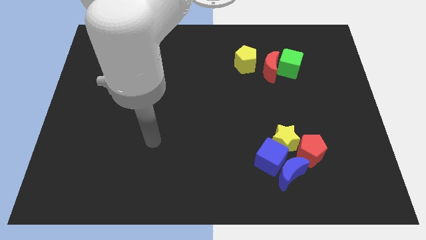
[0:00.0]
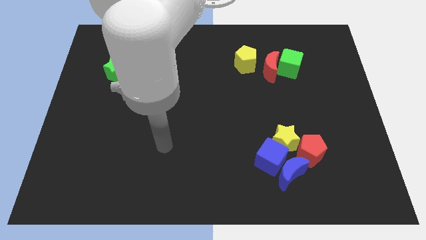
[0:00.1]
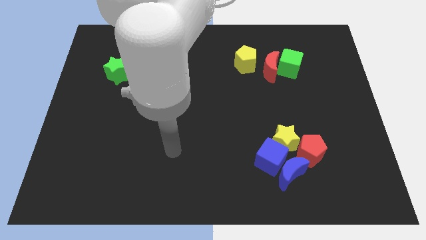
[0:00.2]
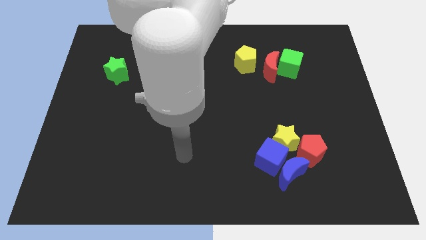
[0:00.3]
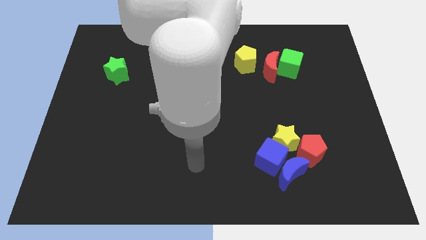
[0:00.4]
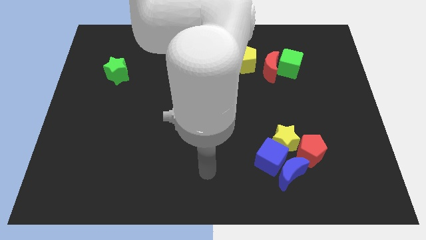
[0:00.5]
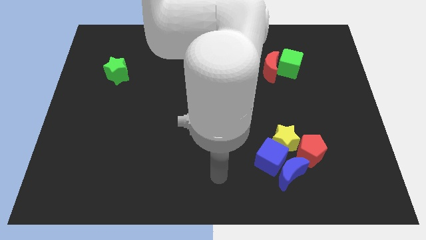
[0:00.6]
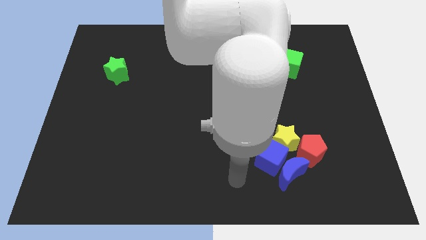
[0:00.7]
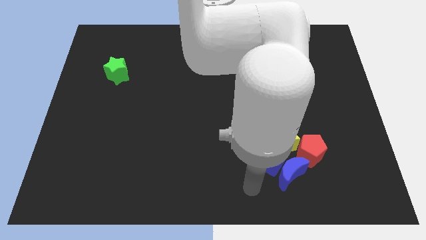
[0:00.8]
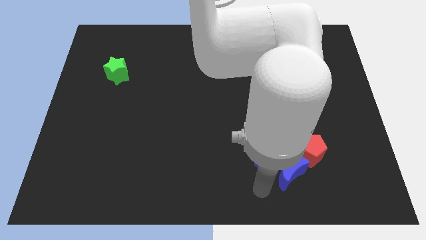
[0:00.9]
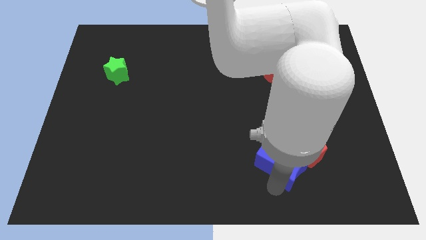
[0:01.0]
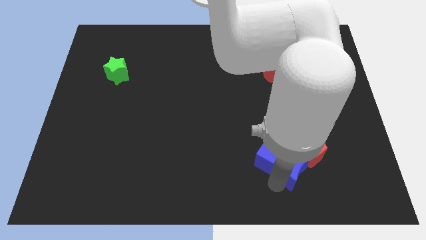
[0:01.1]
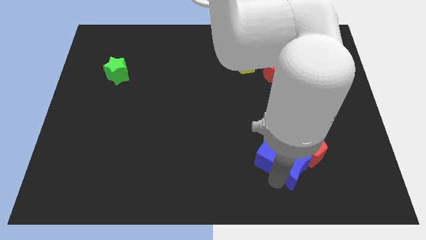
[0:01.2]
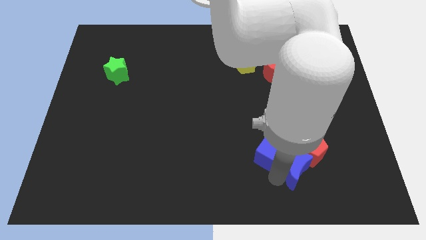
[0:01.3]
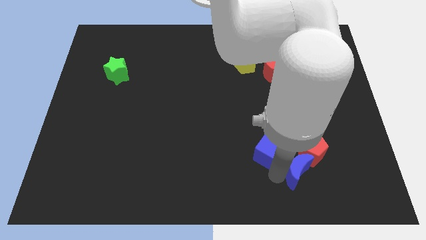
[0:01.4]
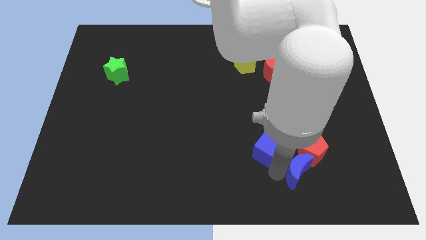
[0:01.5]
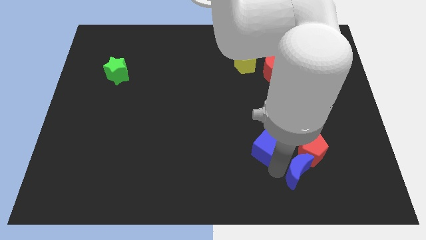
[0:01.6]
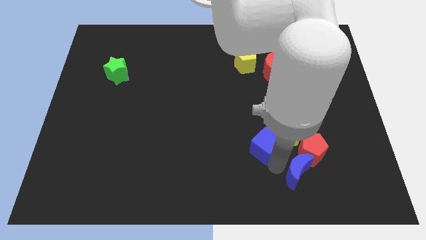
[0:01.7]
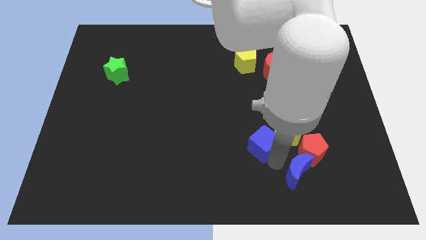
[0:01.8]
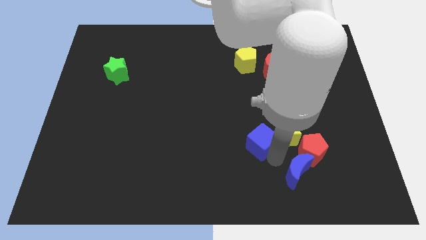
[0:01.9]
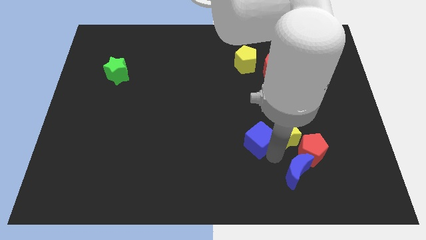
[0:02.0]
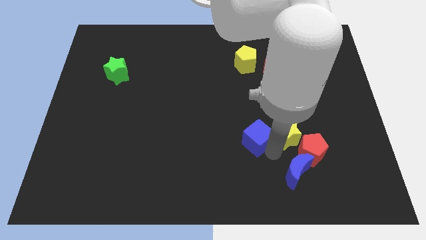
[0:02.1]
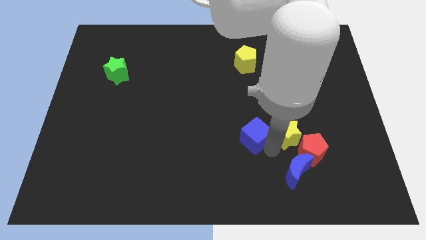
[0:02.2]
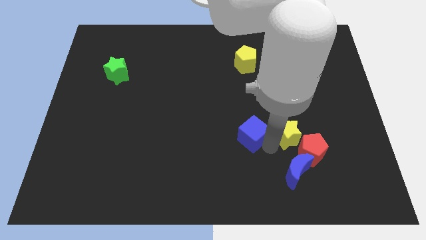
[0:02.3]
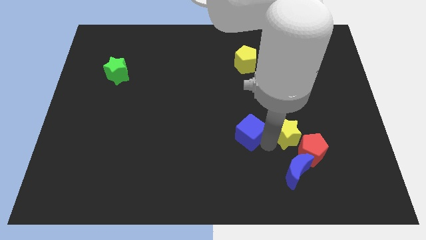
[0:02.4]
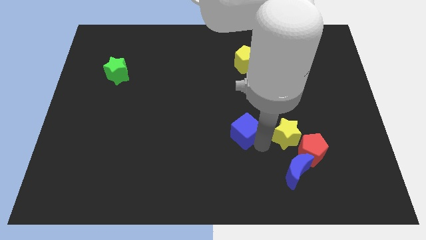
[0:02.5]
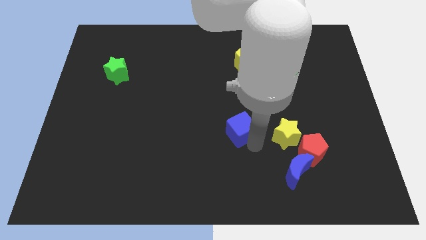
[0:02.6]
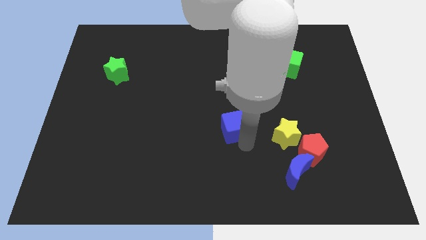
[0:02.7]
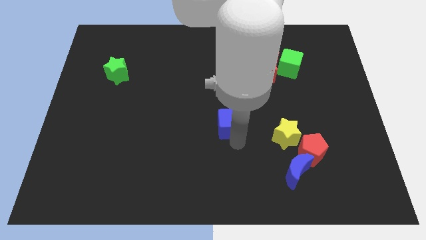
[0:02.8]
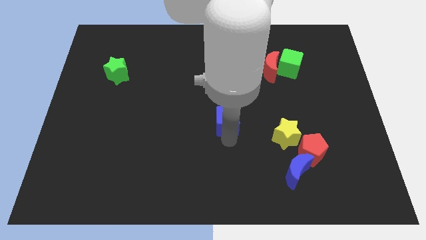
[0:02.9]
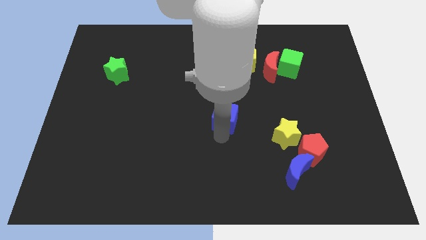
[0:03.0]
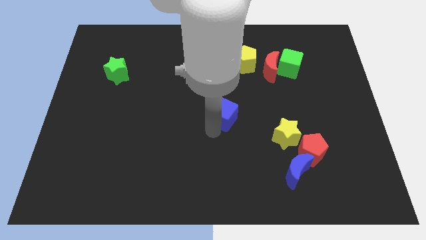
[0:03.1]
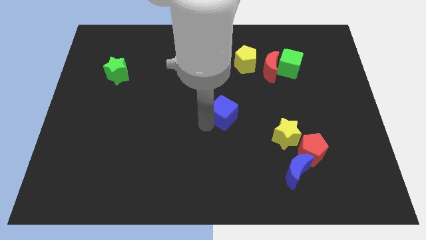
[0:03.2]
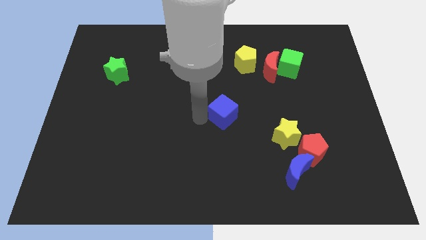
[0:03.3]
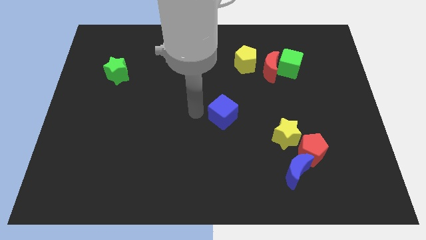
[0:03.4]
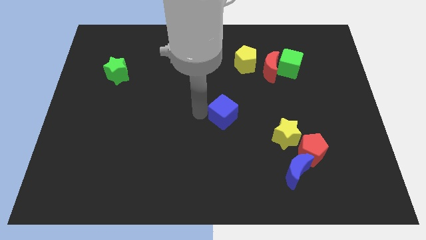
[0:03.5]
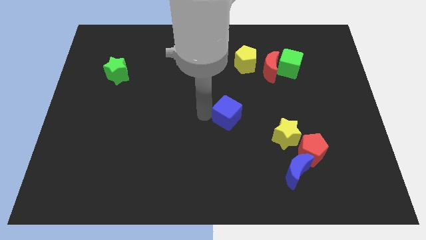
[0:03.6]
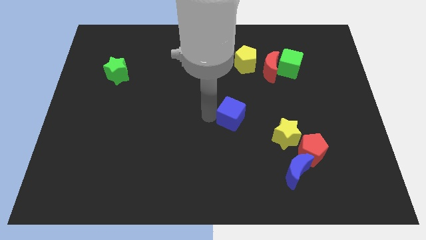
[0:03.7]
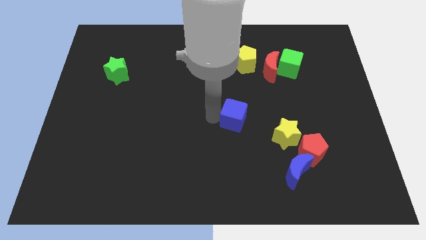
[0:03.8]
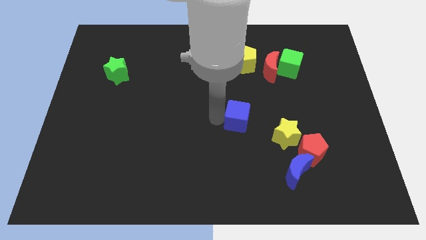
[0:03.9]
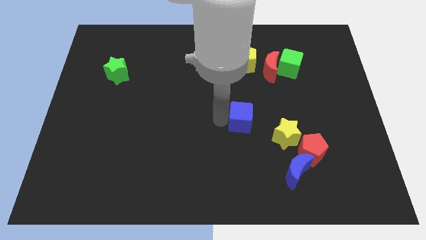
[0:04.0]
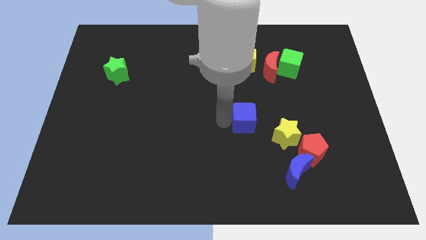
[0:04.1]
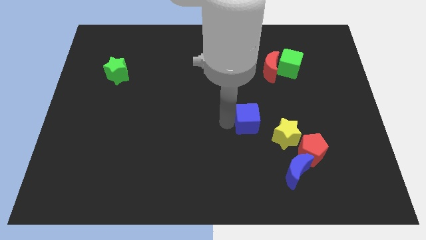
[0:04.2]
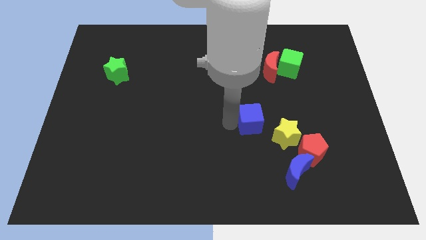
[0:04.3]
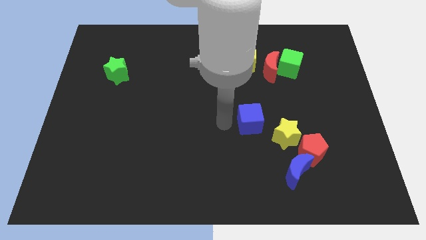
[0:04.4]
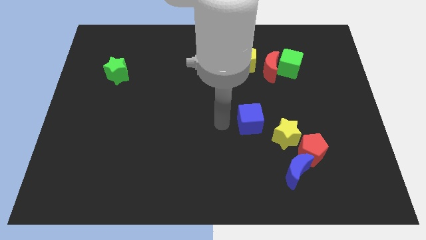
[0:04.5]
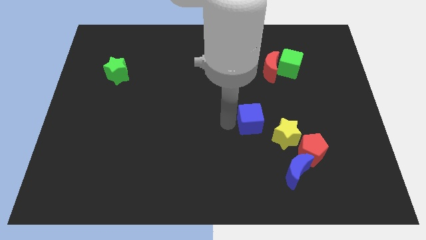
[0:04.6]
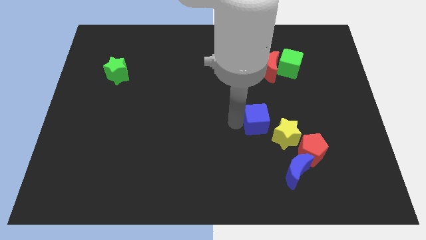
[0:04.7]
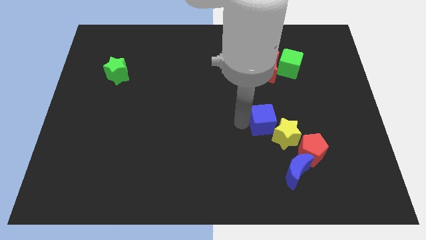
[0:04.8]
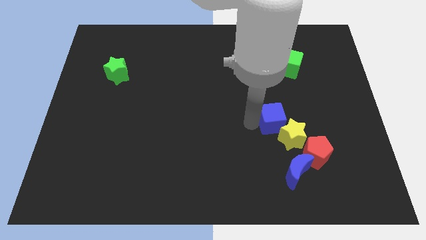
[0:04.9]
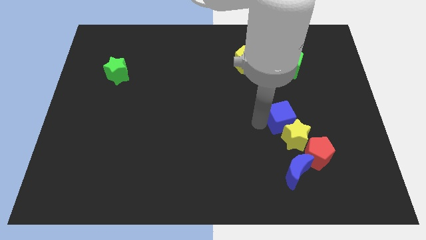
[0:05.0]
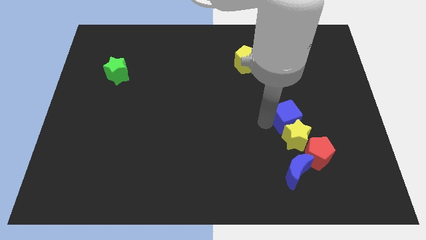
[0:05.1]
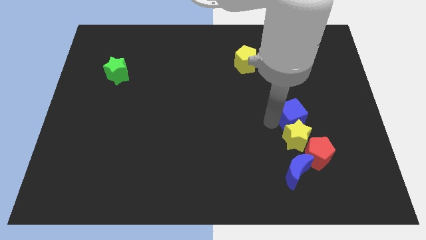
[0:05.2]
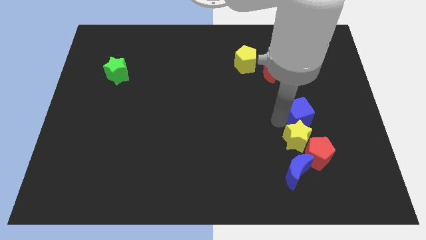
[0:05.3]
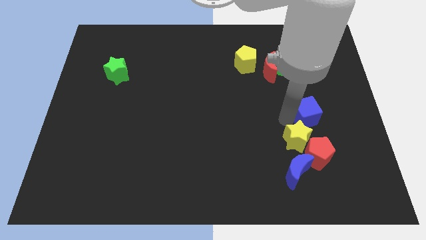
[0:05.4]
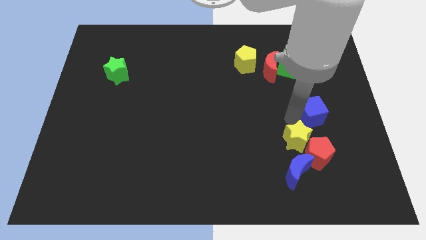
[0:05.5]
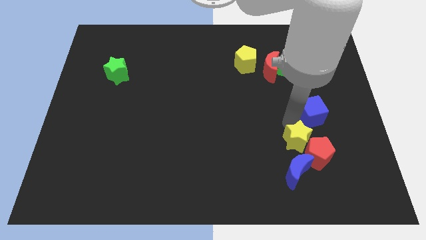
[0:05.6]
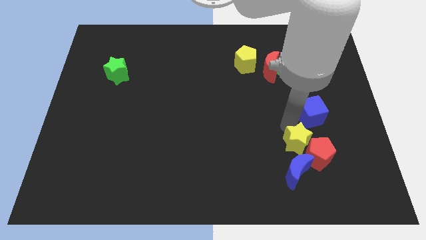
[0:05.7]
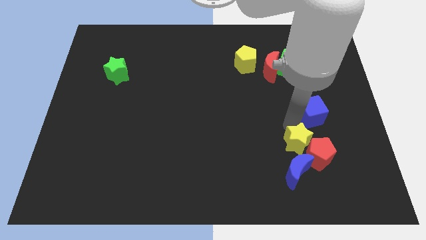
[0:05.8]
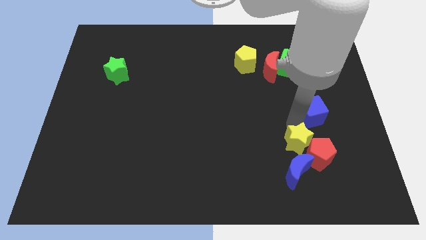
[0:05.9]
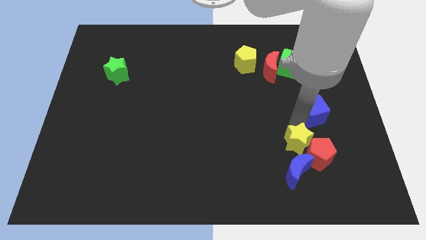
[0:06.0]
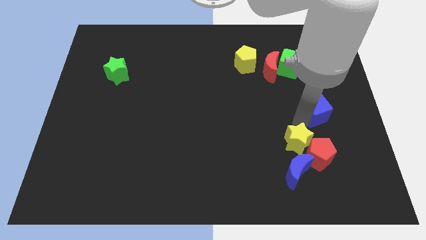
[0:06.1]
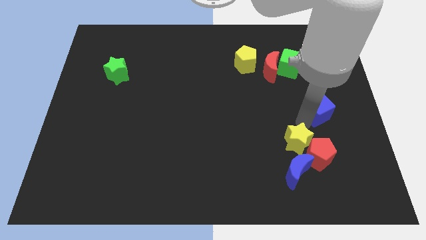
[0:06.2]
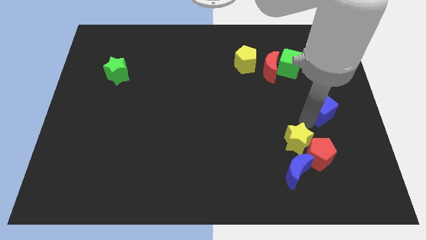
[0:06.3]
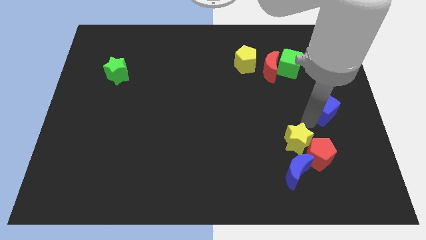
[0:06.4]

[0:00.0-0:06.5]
move the blue cube to the right side of the board
